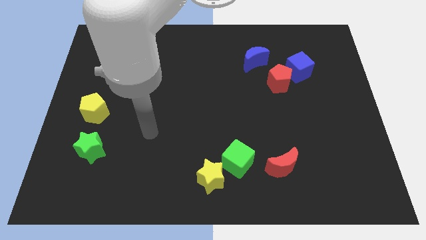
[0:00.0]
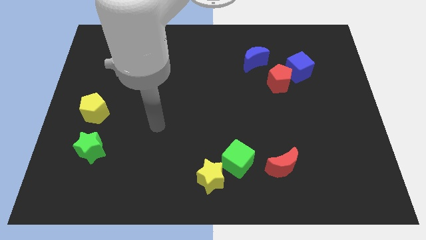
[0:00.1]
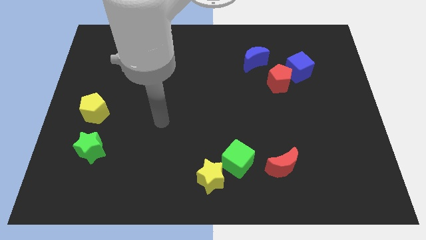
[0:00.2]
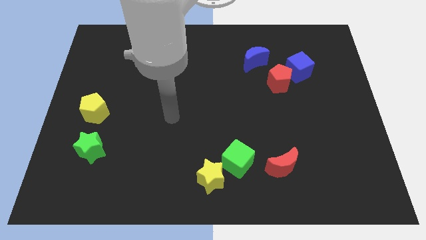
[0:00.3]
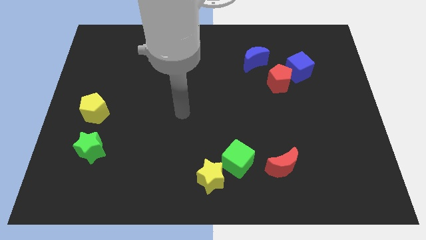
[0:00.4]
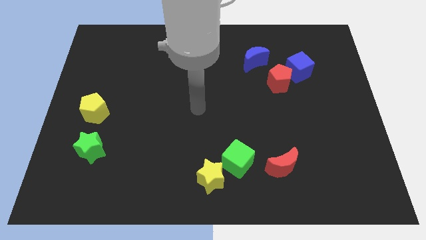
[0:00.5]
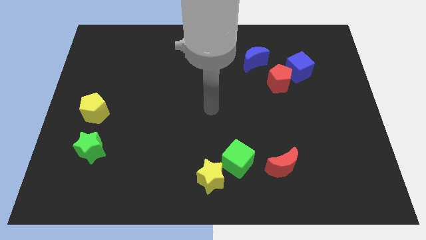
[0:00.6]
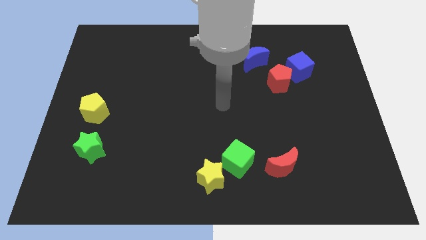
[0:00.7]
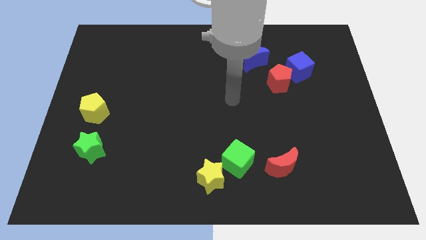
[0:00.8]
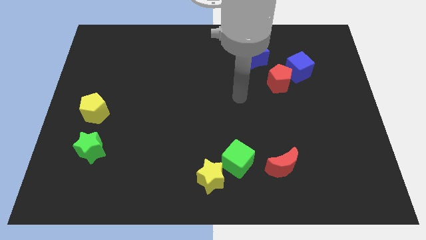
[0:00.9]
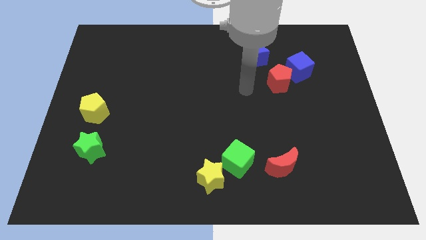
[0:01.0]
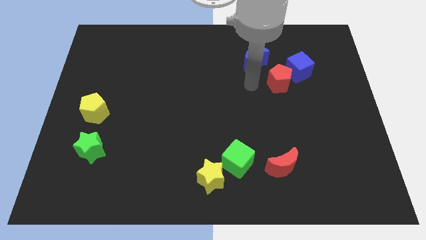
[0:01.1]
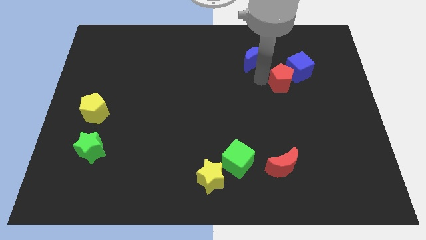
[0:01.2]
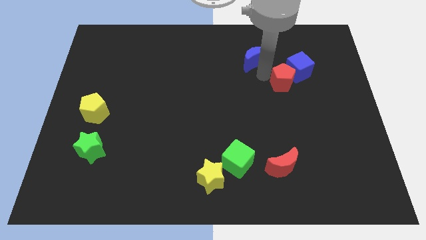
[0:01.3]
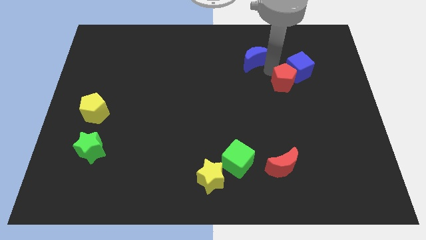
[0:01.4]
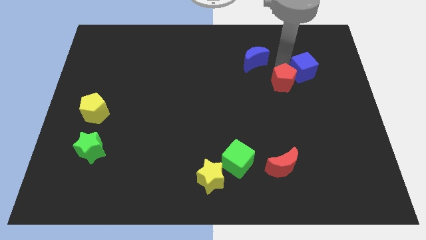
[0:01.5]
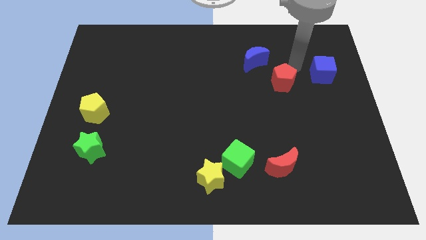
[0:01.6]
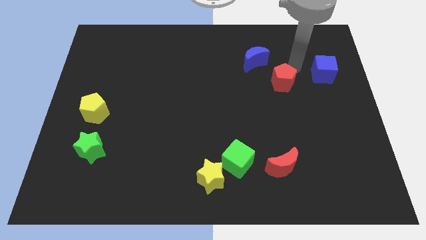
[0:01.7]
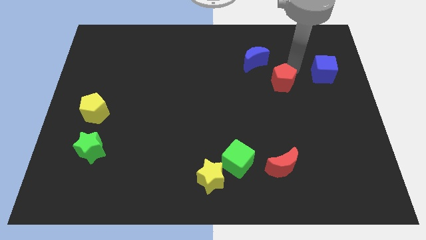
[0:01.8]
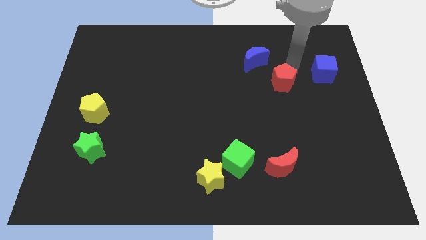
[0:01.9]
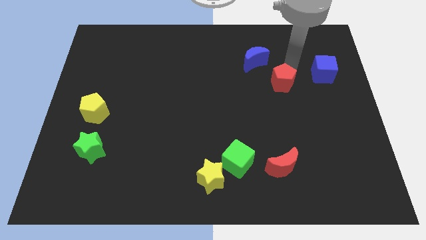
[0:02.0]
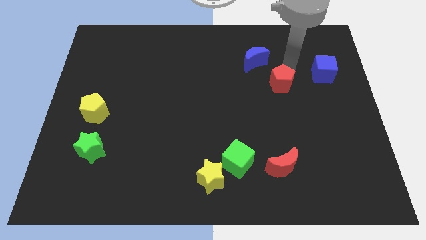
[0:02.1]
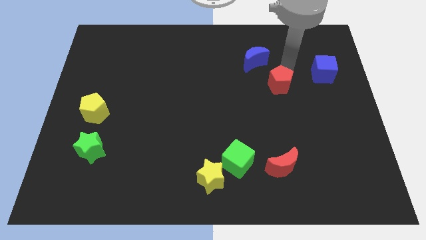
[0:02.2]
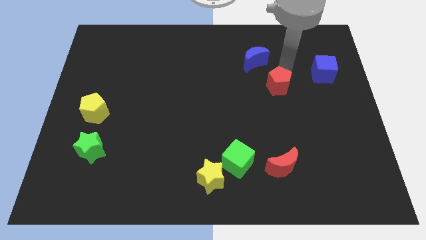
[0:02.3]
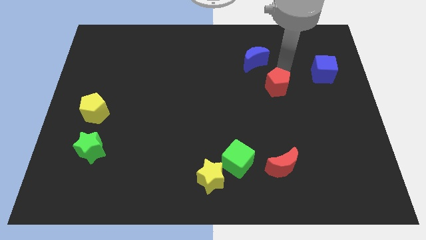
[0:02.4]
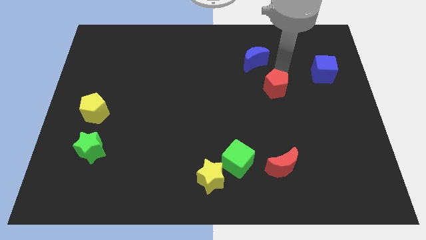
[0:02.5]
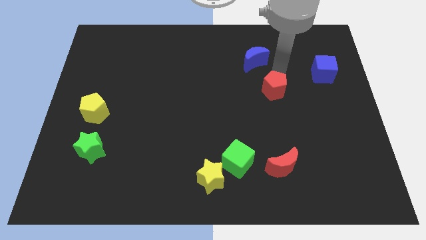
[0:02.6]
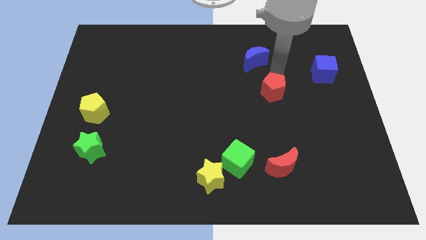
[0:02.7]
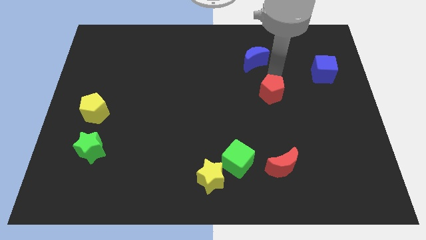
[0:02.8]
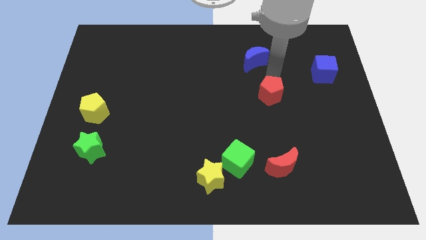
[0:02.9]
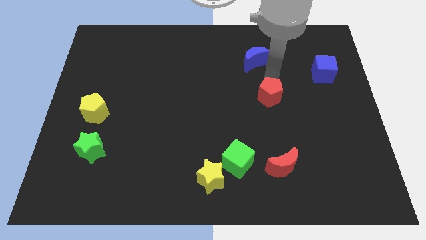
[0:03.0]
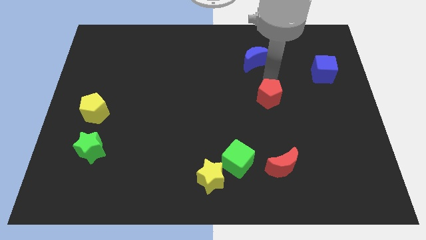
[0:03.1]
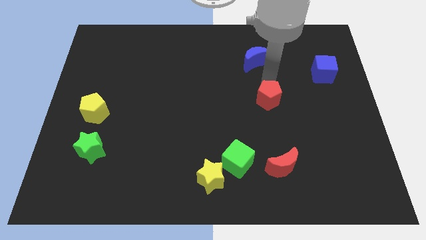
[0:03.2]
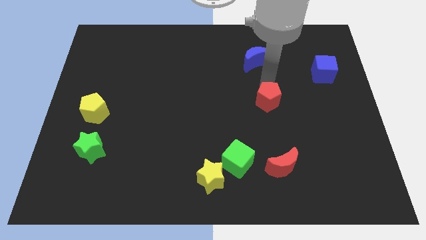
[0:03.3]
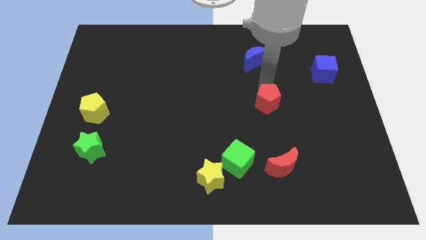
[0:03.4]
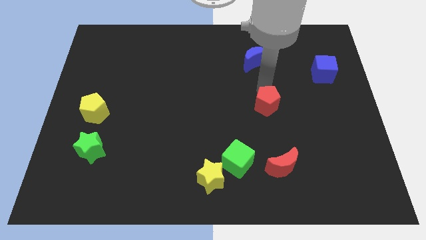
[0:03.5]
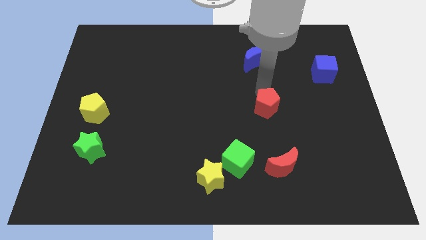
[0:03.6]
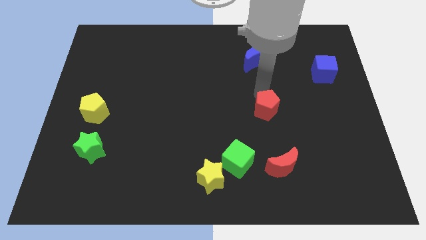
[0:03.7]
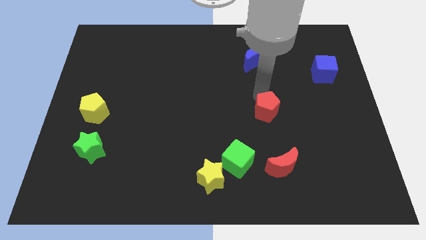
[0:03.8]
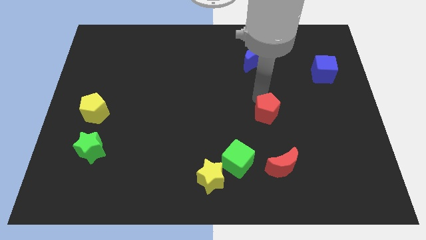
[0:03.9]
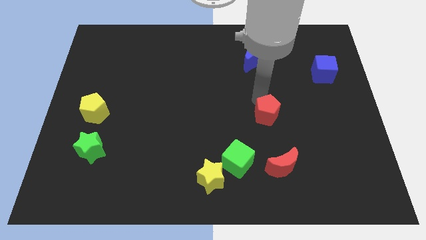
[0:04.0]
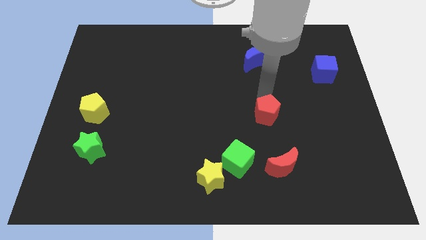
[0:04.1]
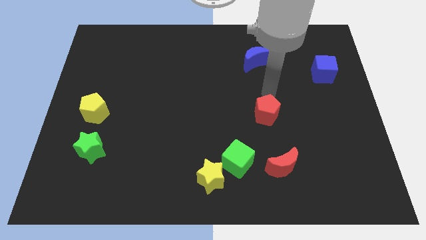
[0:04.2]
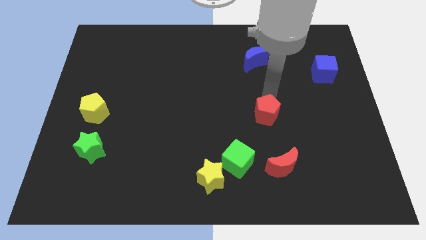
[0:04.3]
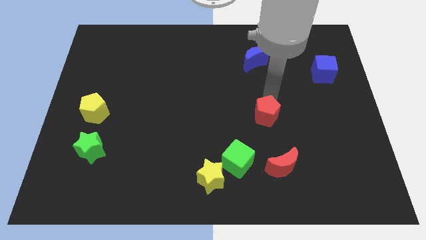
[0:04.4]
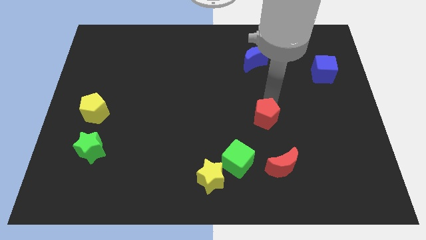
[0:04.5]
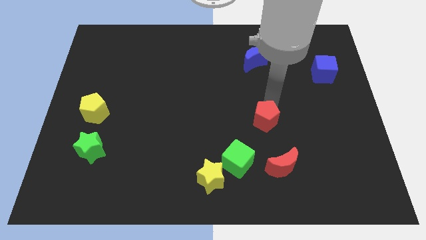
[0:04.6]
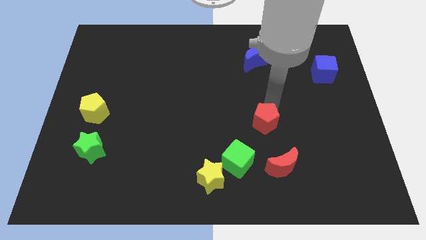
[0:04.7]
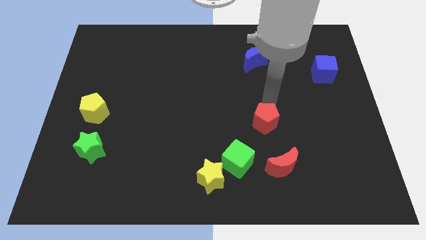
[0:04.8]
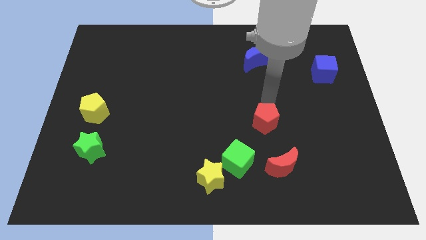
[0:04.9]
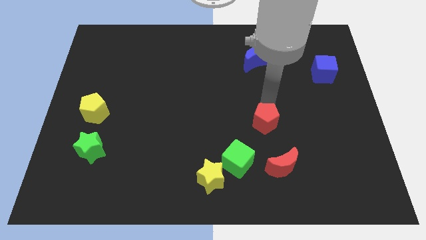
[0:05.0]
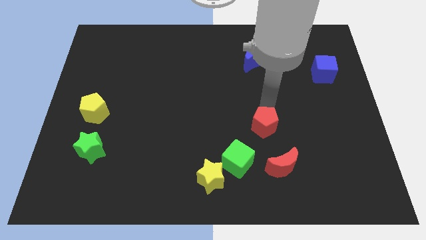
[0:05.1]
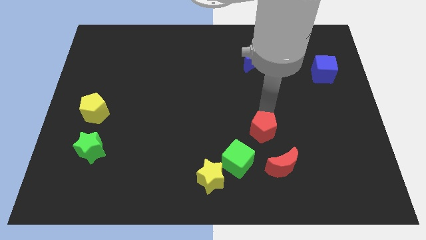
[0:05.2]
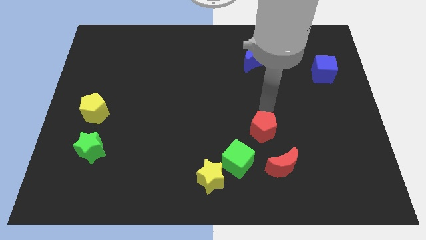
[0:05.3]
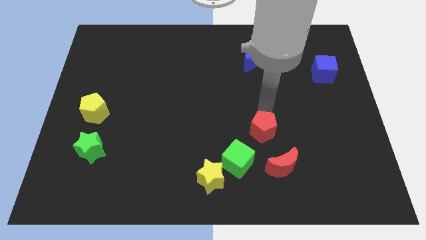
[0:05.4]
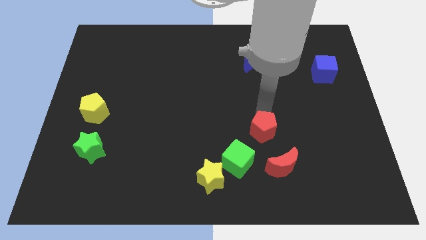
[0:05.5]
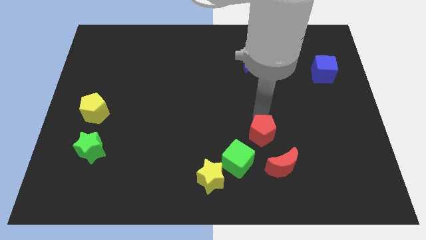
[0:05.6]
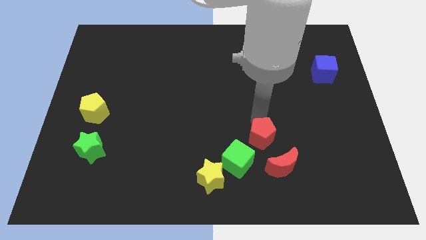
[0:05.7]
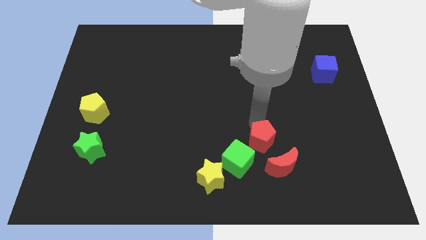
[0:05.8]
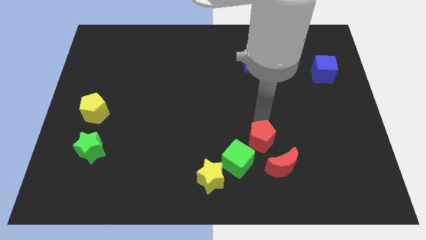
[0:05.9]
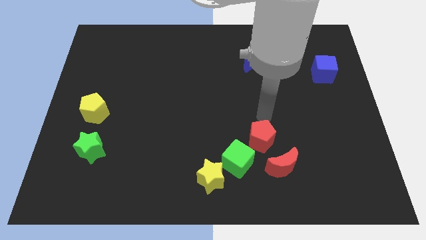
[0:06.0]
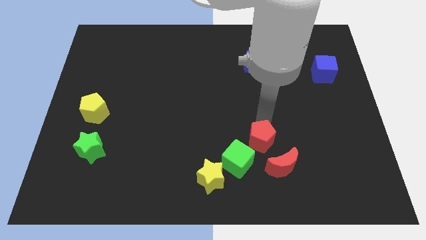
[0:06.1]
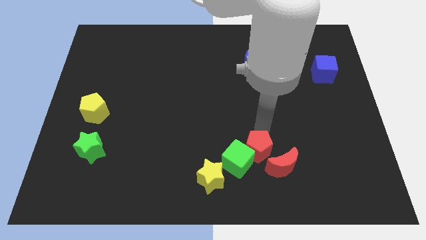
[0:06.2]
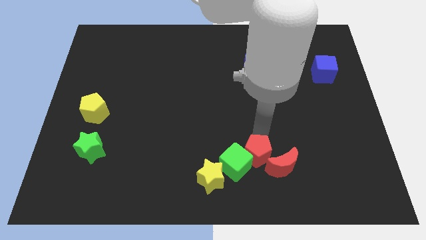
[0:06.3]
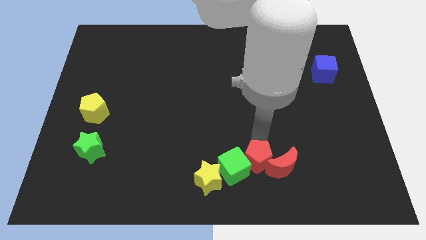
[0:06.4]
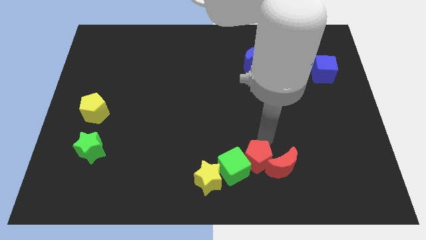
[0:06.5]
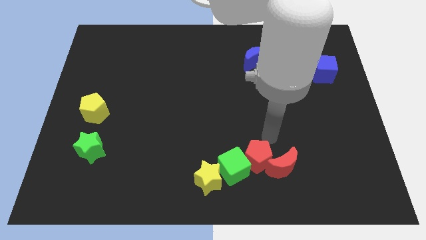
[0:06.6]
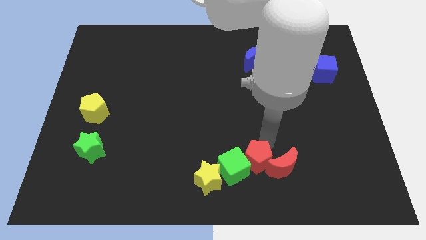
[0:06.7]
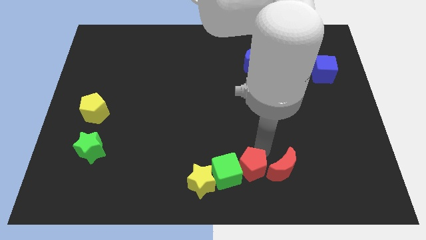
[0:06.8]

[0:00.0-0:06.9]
push the red pentagon to the bottom

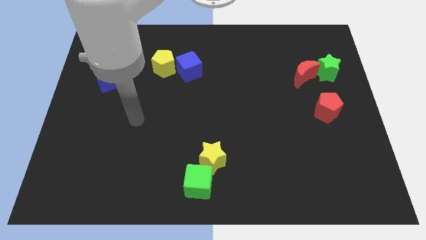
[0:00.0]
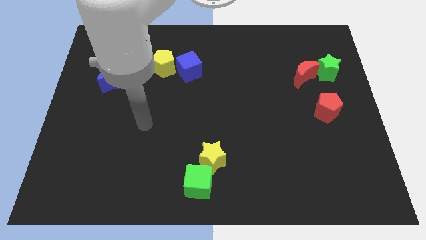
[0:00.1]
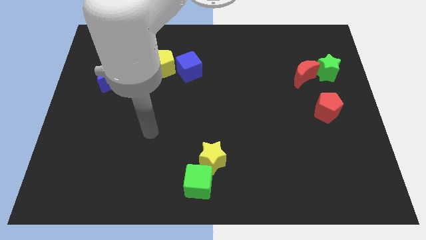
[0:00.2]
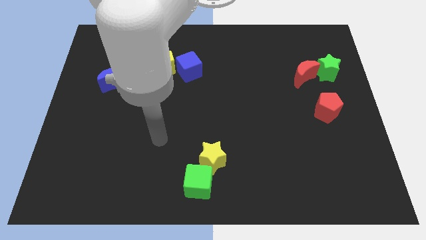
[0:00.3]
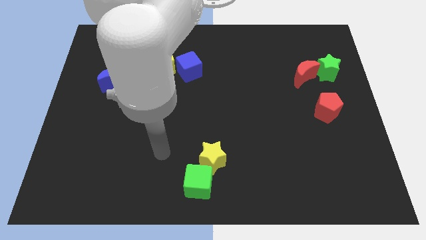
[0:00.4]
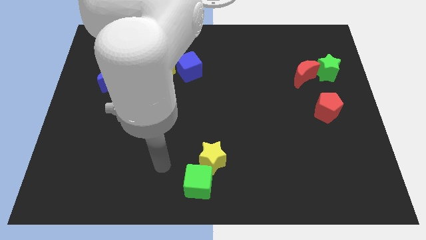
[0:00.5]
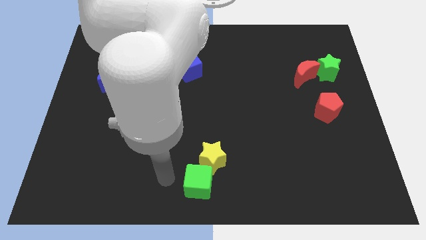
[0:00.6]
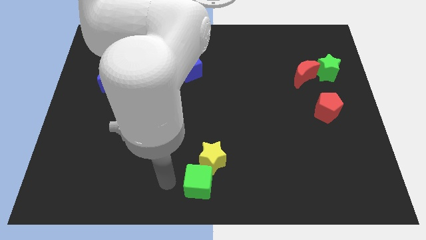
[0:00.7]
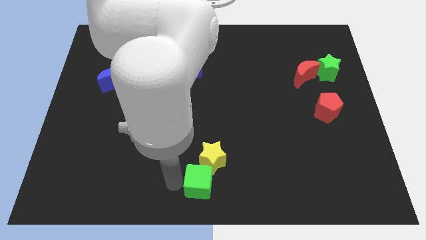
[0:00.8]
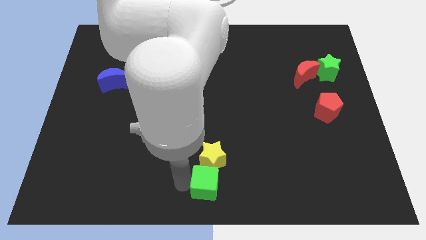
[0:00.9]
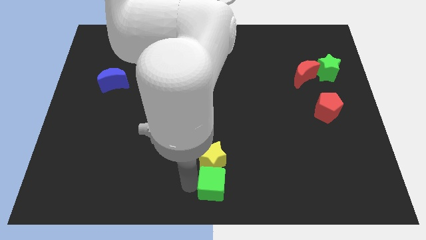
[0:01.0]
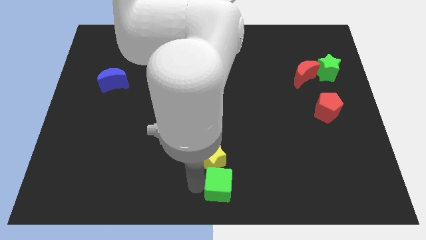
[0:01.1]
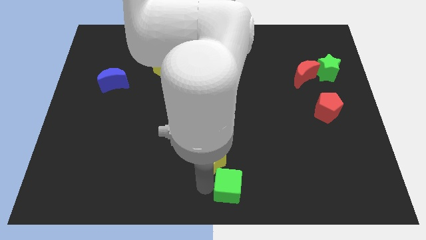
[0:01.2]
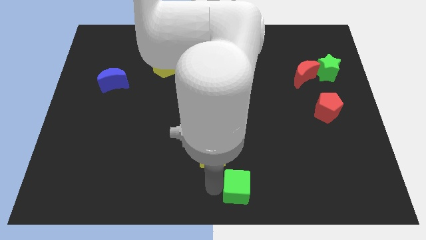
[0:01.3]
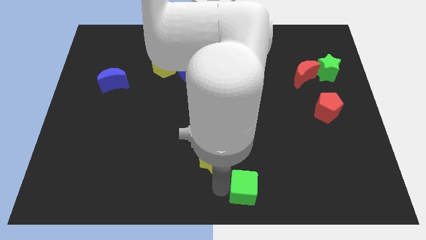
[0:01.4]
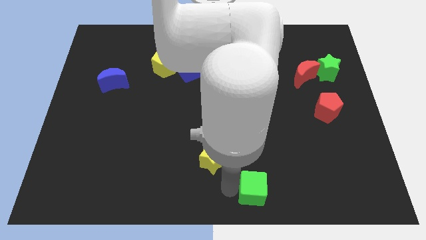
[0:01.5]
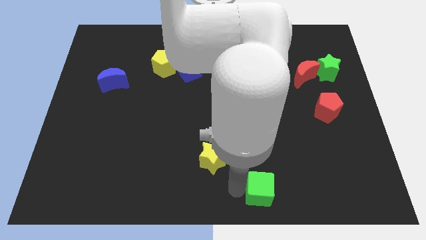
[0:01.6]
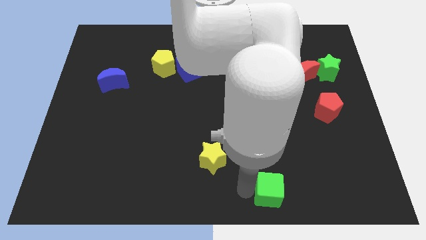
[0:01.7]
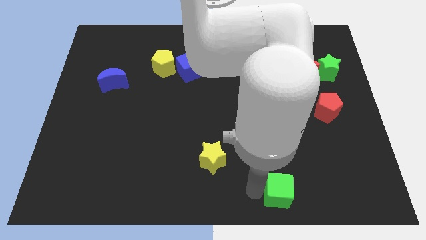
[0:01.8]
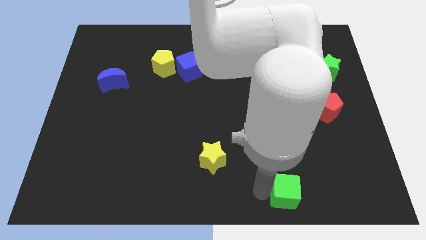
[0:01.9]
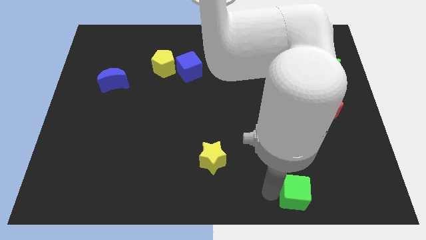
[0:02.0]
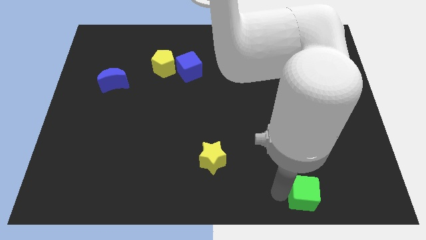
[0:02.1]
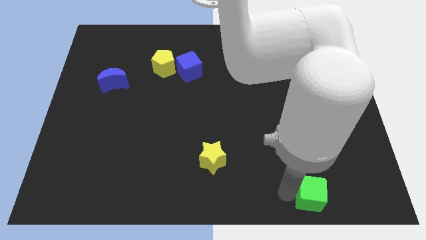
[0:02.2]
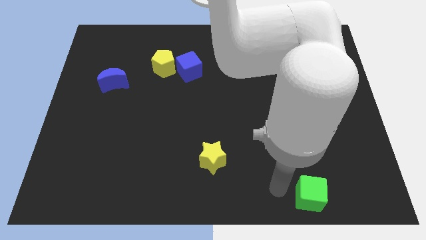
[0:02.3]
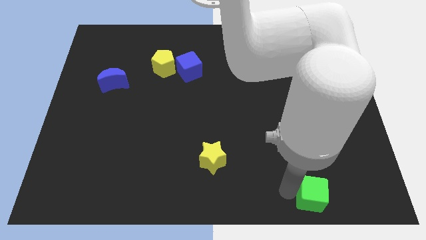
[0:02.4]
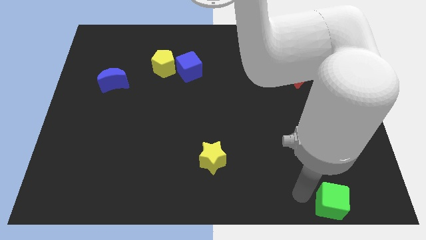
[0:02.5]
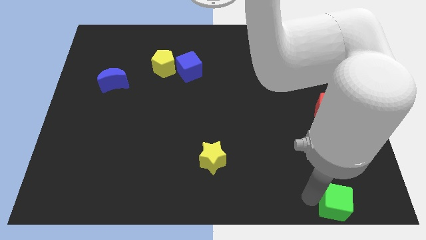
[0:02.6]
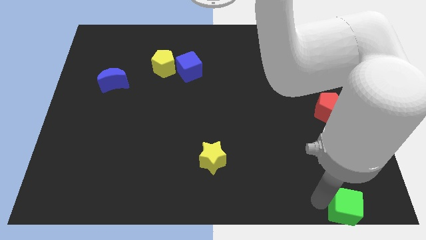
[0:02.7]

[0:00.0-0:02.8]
move the green cube to the lower right corner
